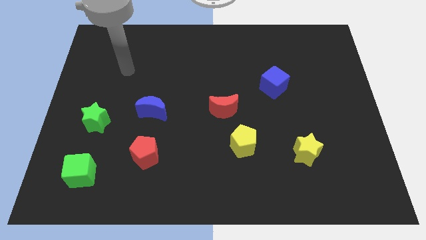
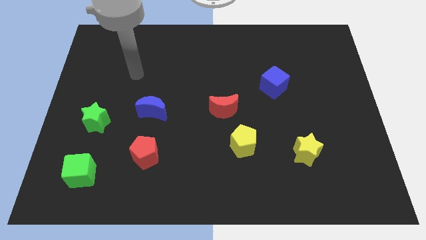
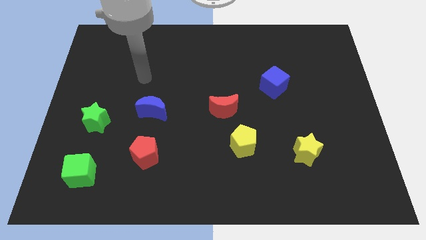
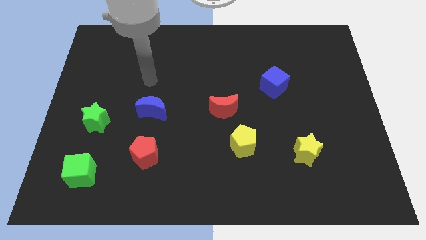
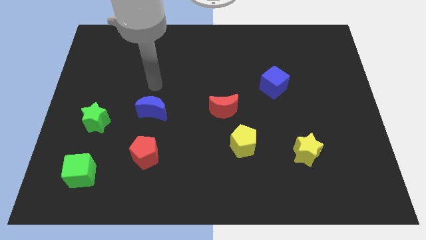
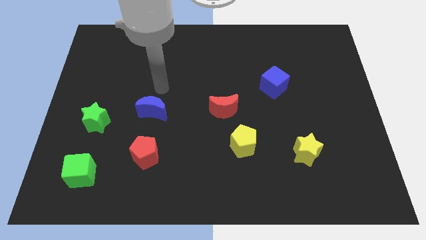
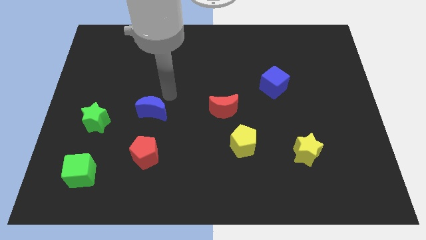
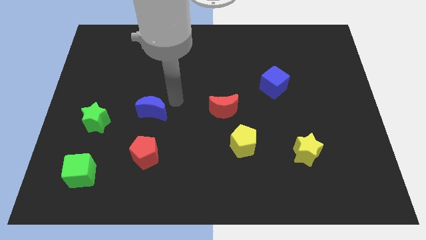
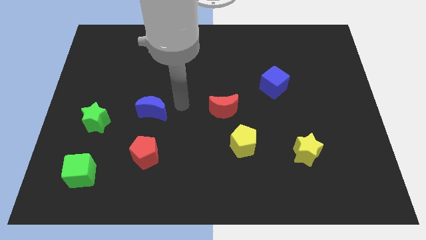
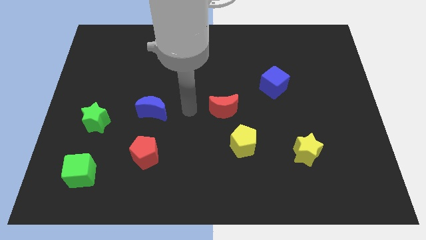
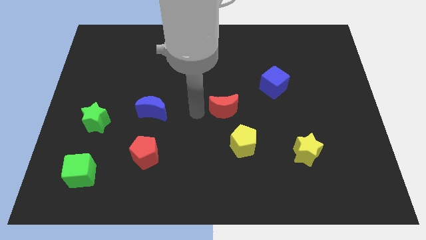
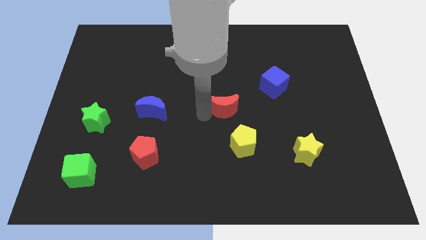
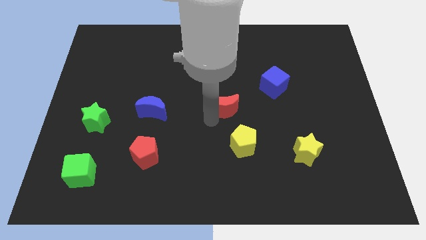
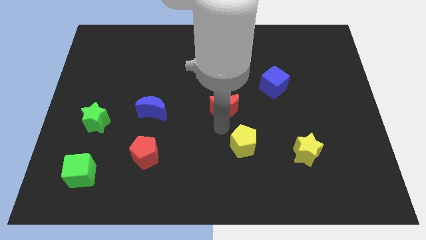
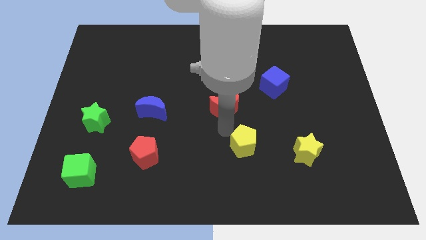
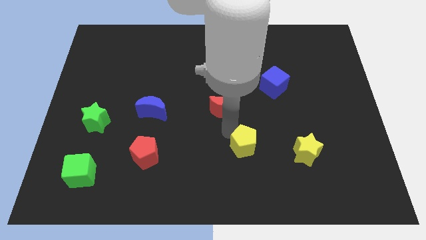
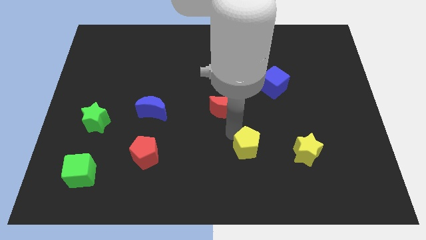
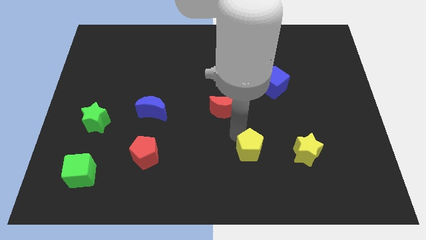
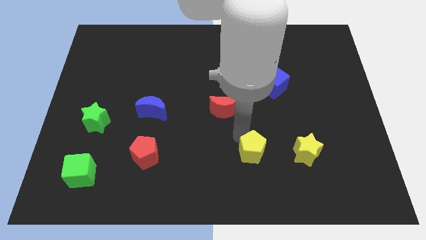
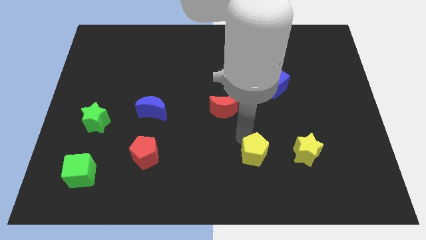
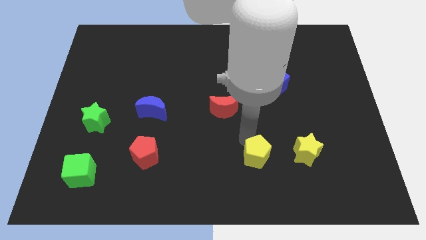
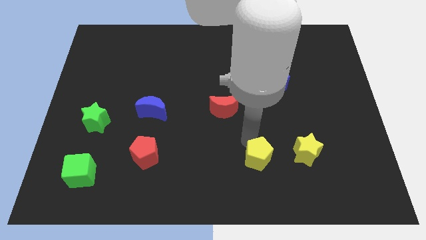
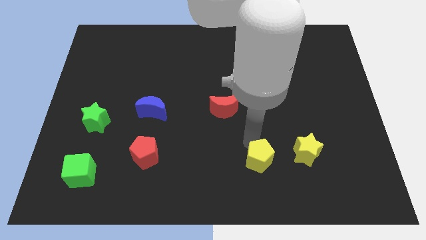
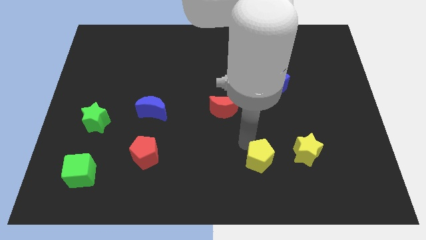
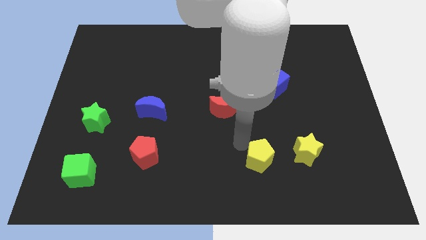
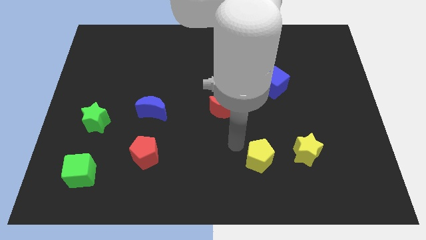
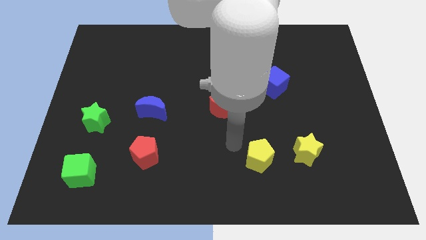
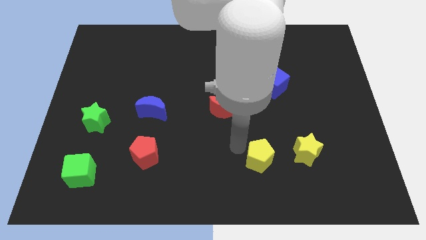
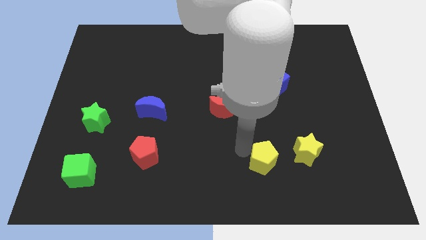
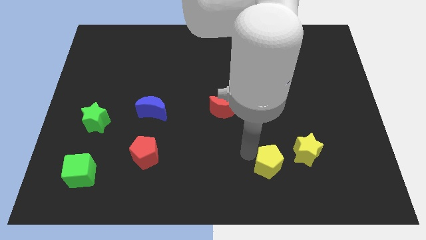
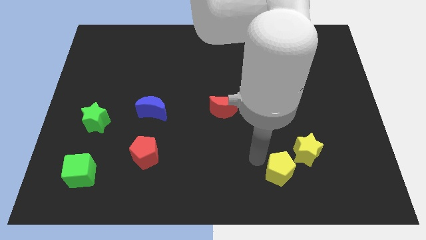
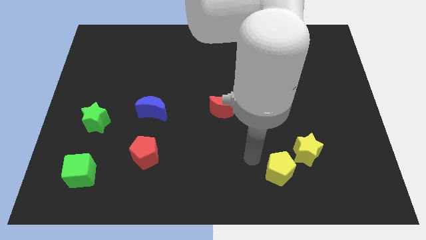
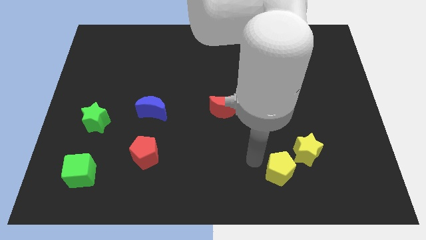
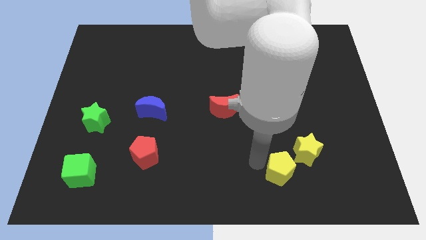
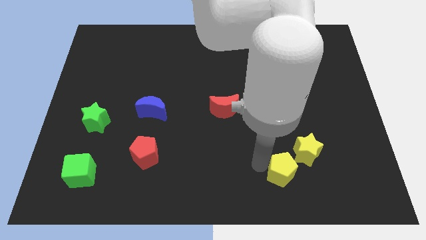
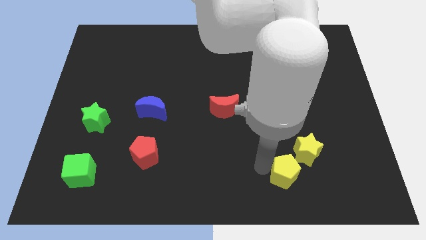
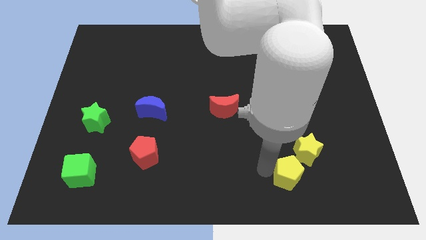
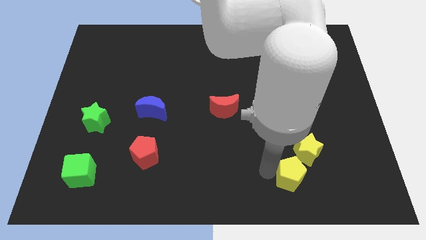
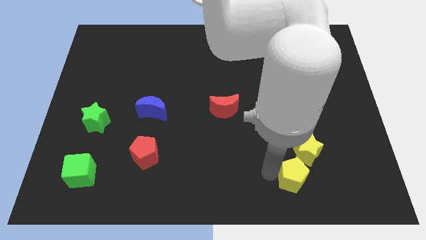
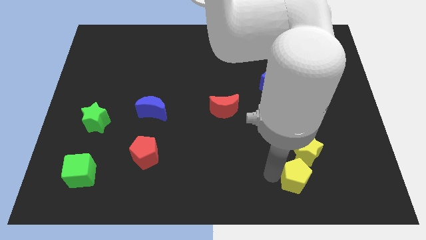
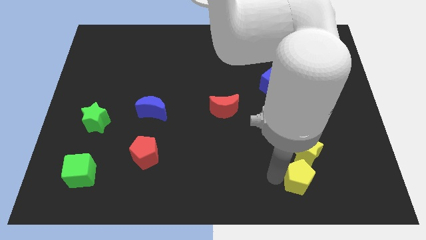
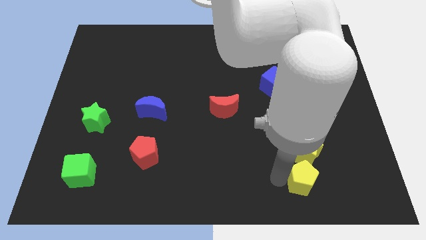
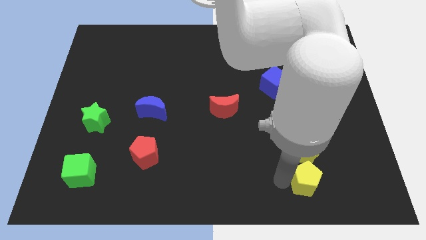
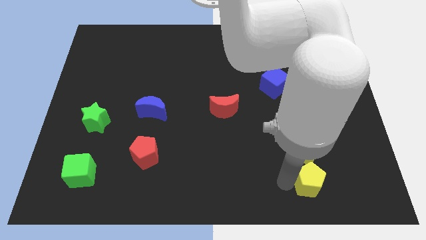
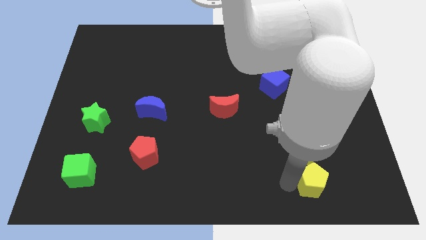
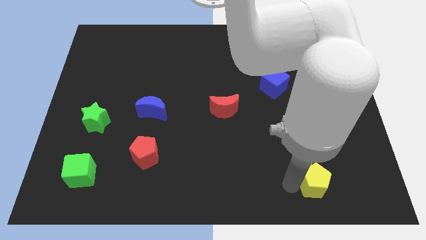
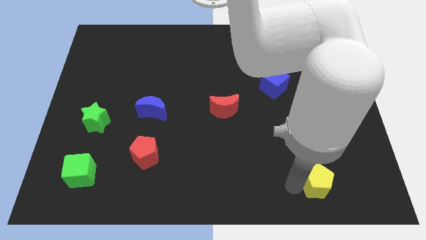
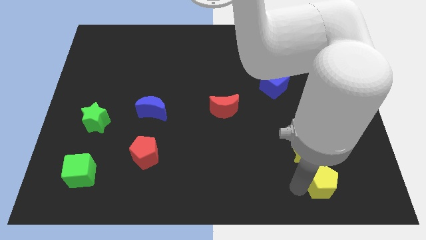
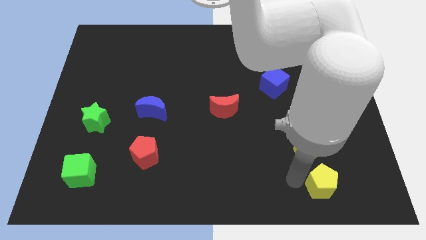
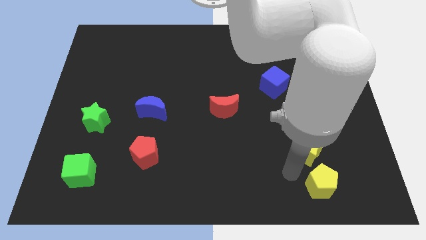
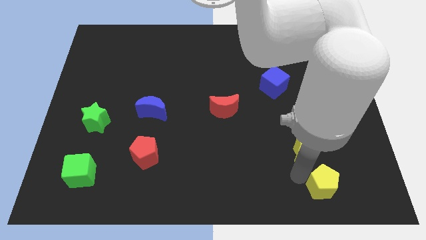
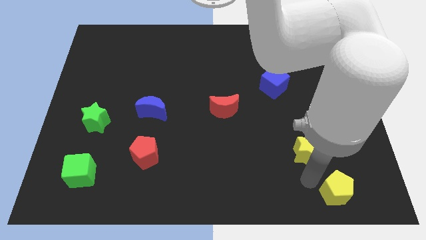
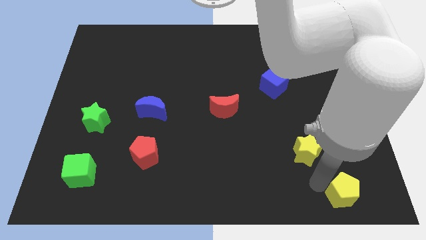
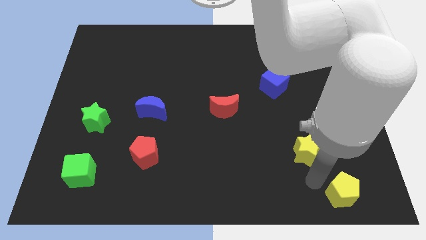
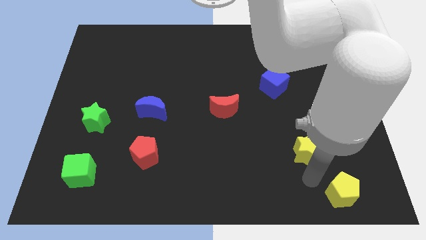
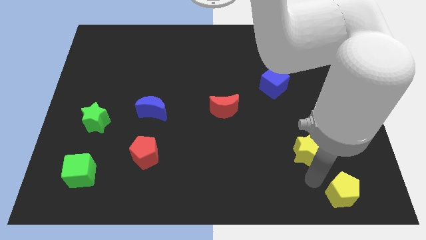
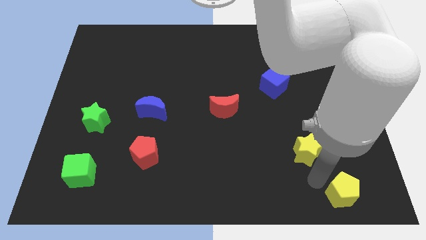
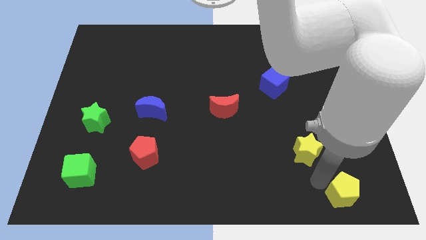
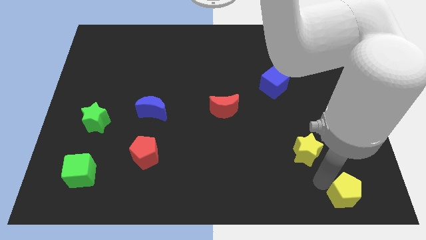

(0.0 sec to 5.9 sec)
move the yellow pentagon to the lower right corner
